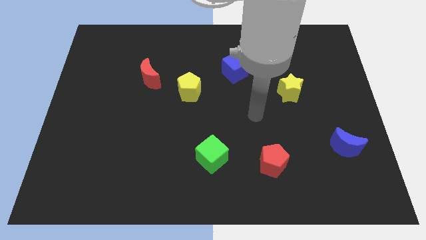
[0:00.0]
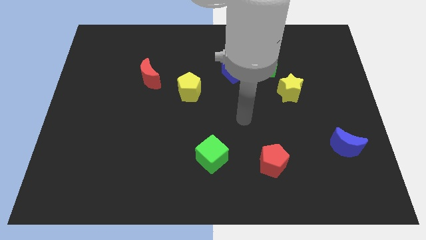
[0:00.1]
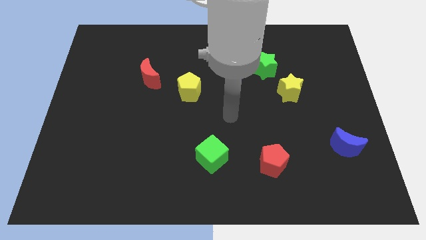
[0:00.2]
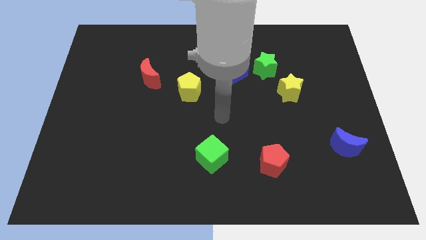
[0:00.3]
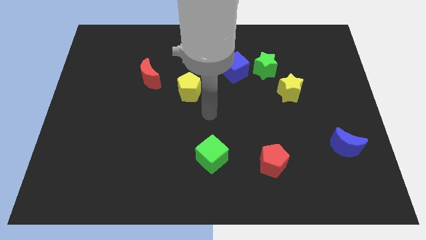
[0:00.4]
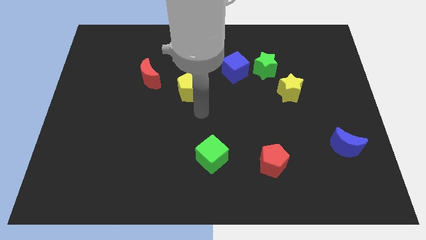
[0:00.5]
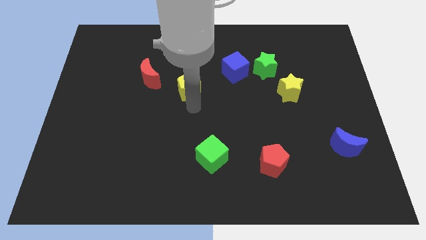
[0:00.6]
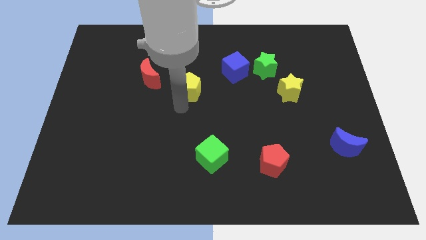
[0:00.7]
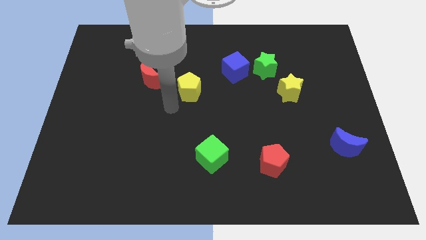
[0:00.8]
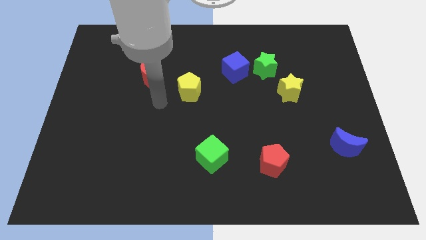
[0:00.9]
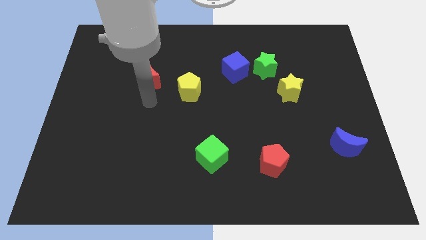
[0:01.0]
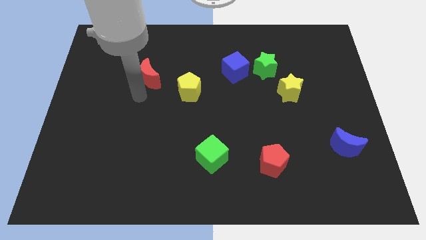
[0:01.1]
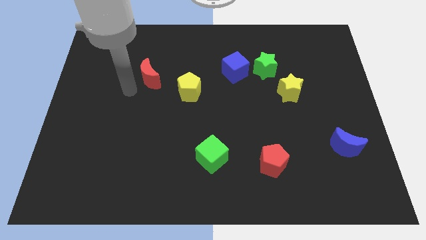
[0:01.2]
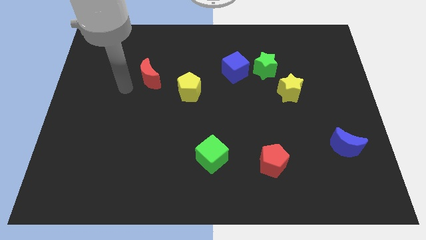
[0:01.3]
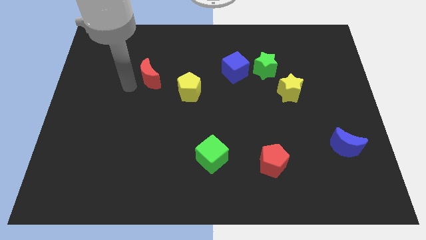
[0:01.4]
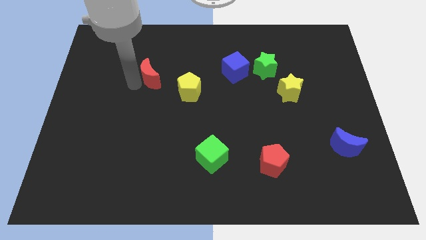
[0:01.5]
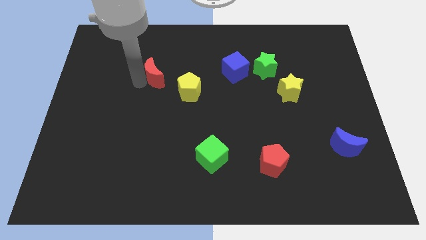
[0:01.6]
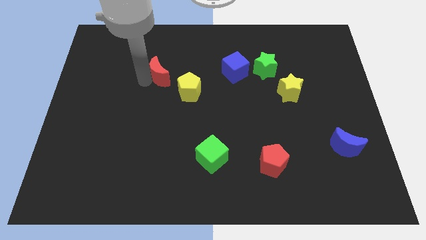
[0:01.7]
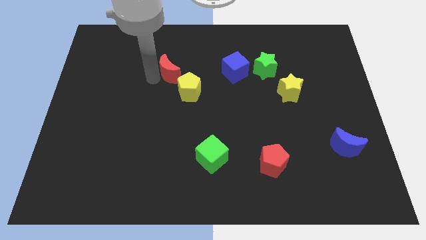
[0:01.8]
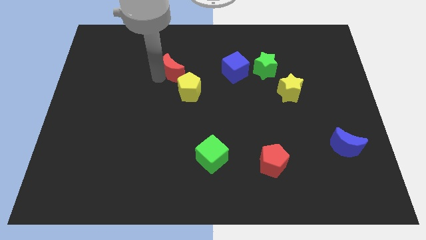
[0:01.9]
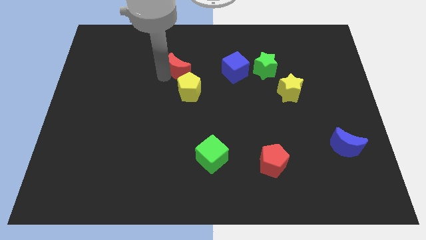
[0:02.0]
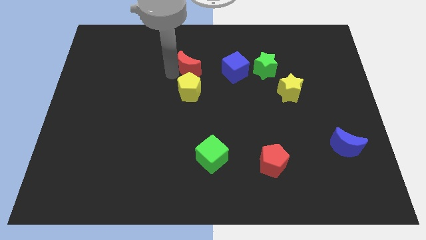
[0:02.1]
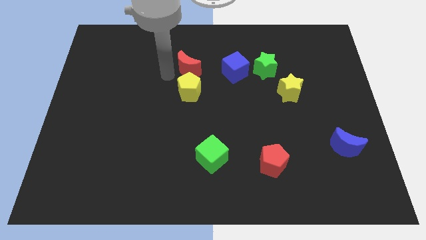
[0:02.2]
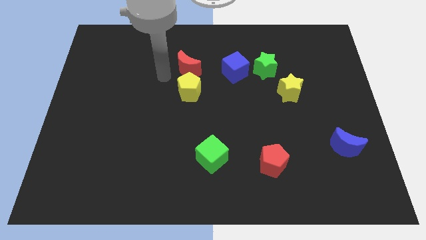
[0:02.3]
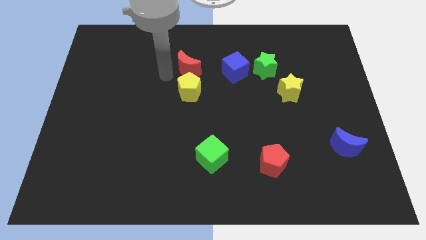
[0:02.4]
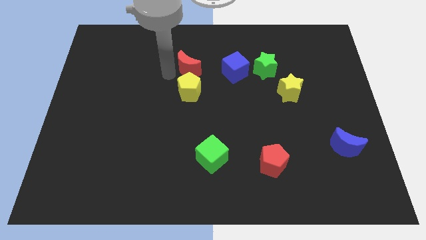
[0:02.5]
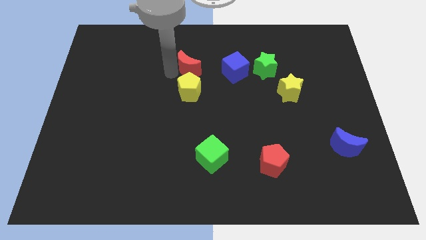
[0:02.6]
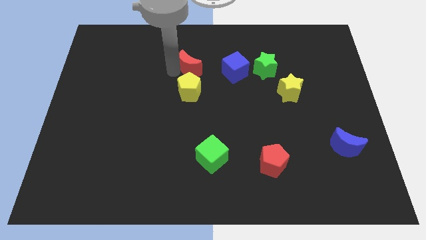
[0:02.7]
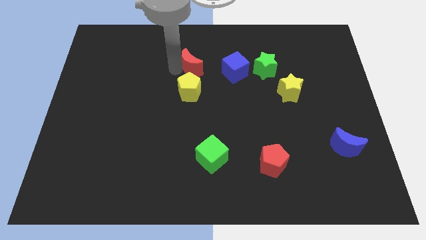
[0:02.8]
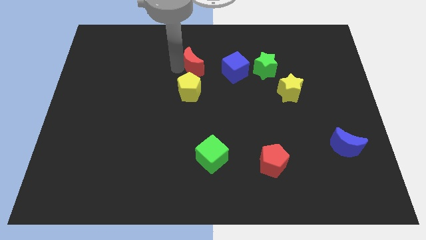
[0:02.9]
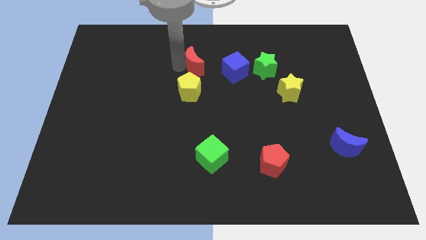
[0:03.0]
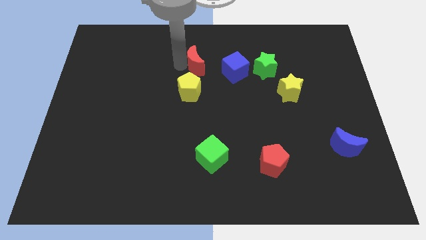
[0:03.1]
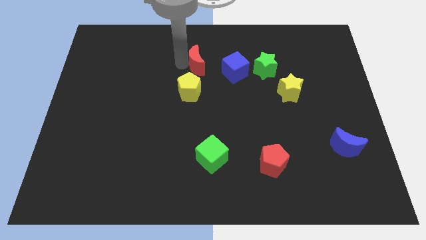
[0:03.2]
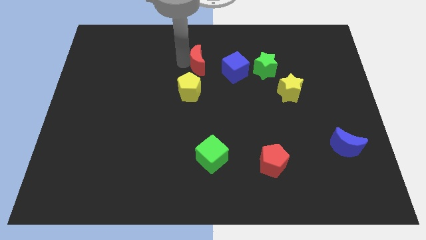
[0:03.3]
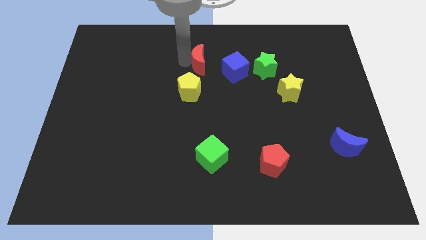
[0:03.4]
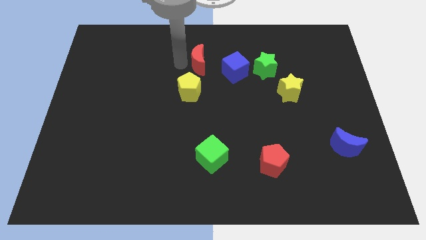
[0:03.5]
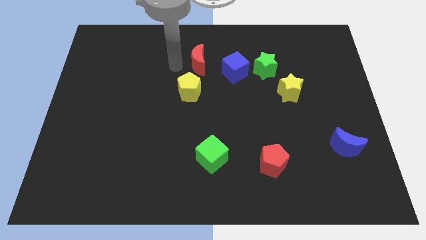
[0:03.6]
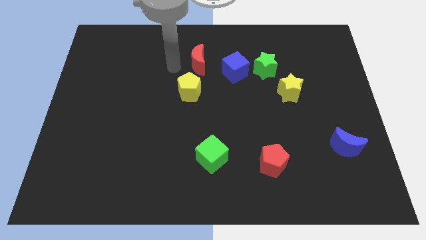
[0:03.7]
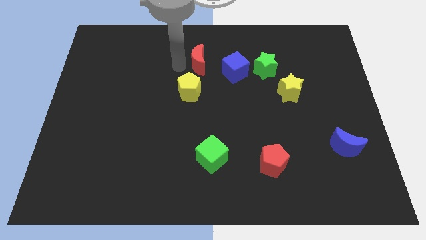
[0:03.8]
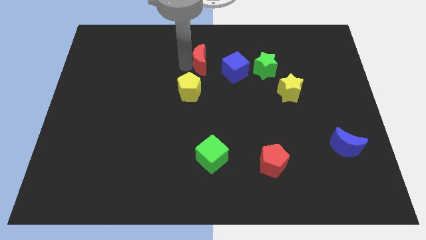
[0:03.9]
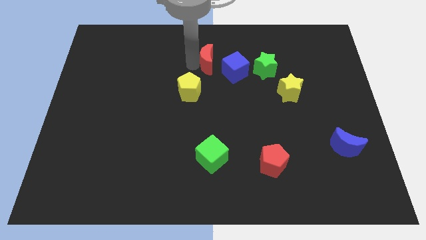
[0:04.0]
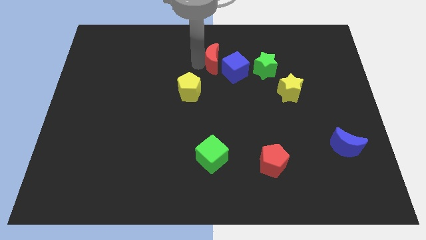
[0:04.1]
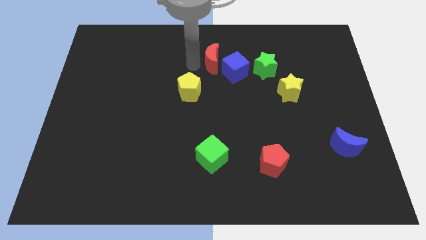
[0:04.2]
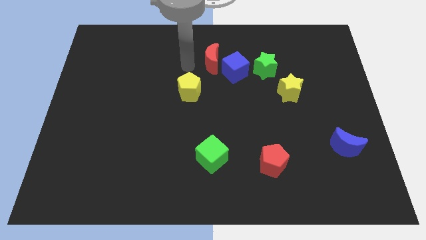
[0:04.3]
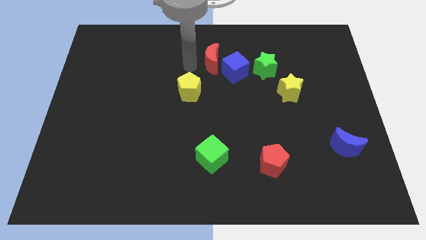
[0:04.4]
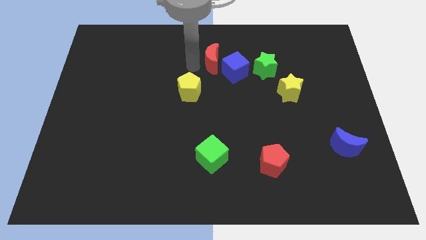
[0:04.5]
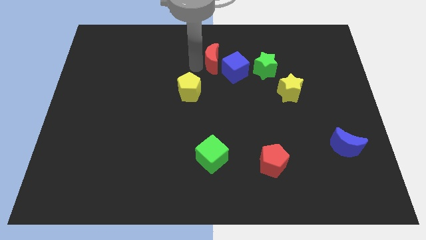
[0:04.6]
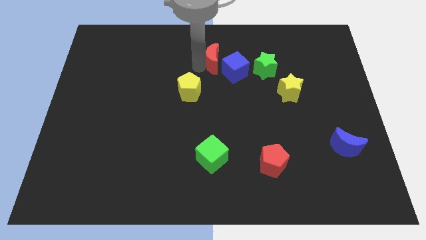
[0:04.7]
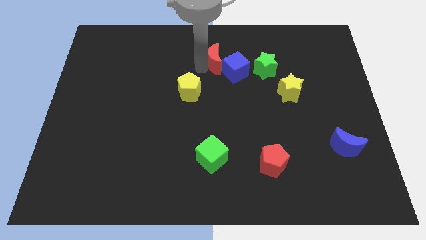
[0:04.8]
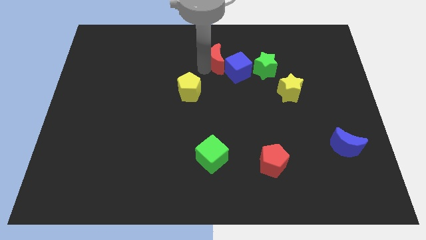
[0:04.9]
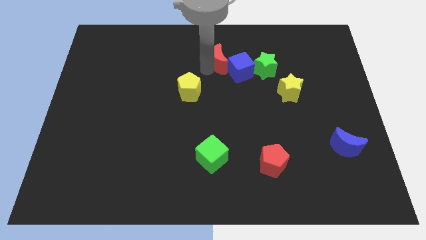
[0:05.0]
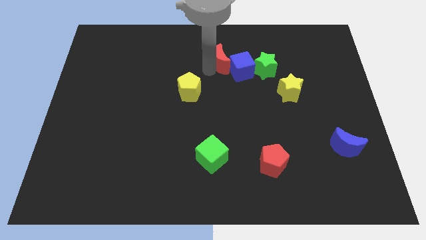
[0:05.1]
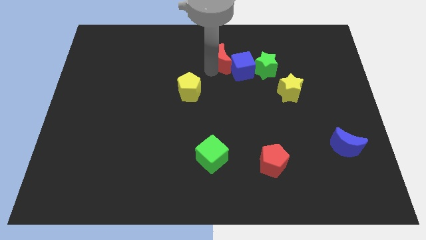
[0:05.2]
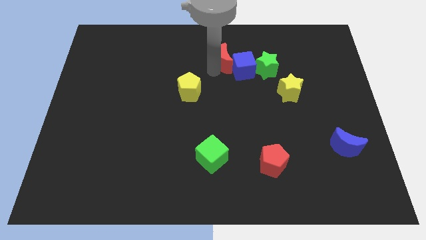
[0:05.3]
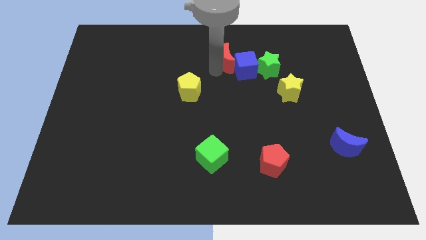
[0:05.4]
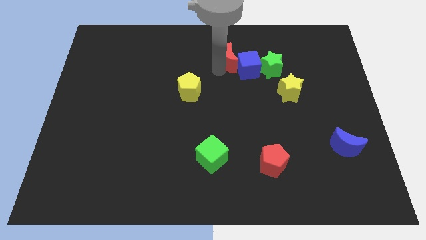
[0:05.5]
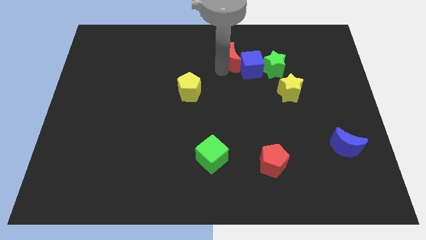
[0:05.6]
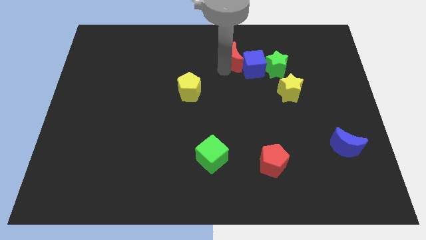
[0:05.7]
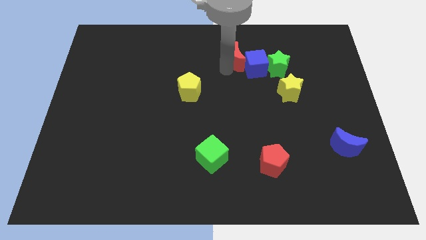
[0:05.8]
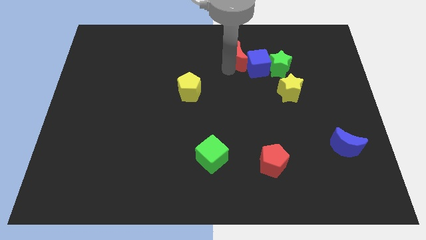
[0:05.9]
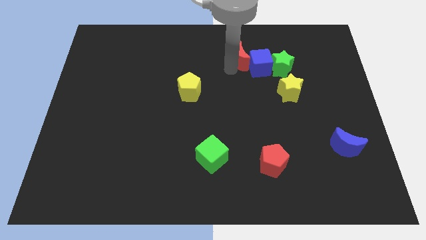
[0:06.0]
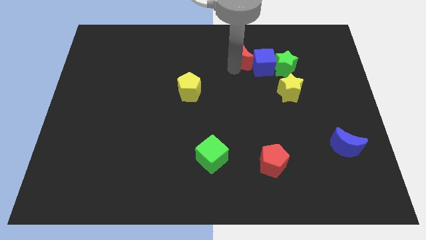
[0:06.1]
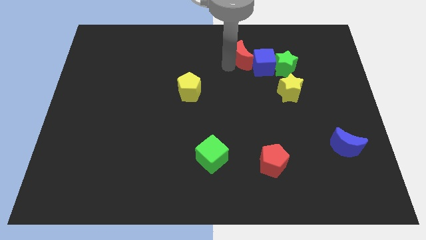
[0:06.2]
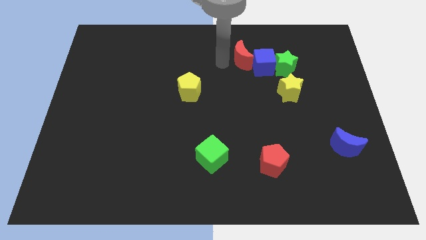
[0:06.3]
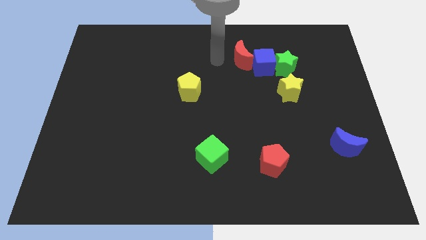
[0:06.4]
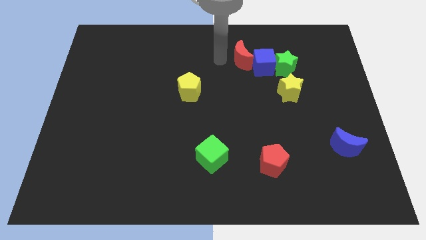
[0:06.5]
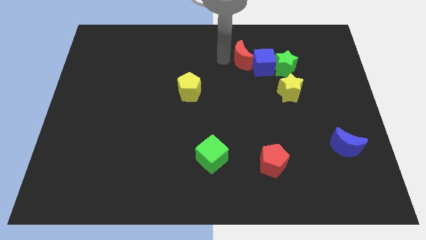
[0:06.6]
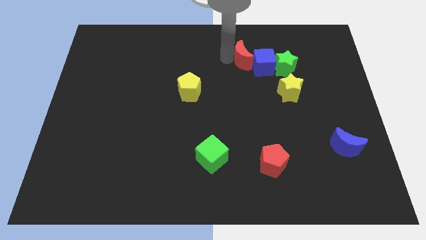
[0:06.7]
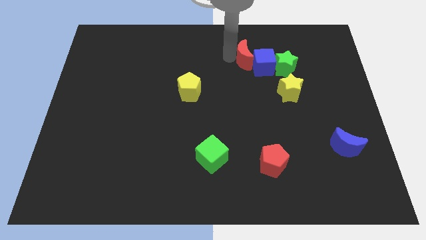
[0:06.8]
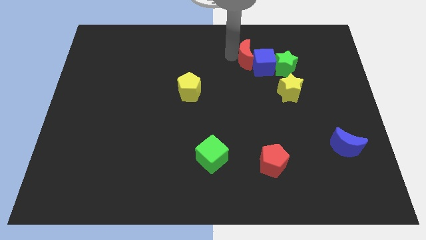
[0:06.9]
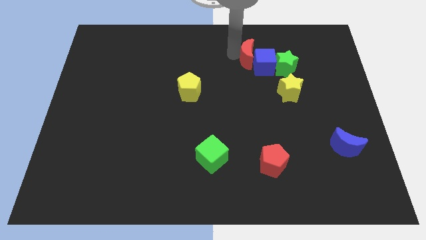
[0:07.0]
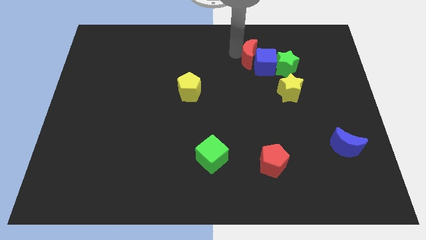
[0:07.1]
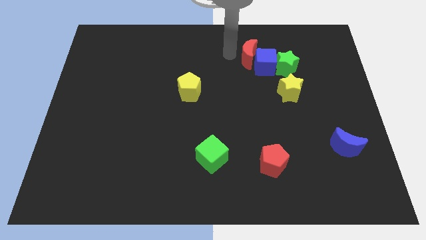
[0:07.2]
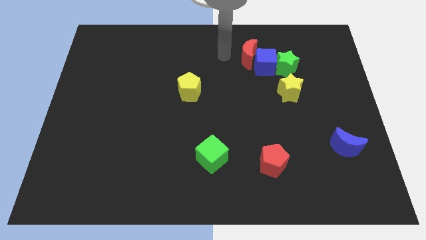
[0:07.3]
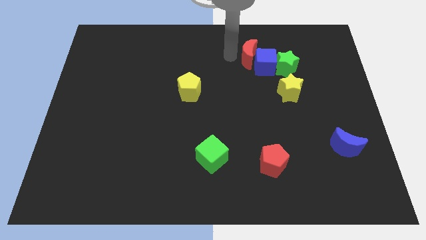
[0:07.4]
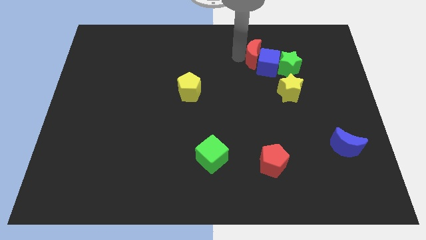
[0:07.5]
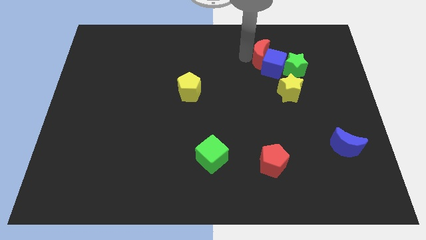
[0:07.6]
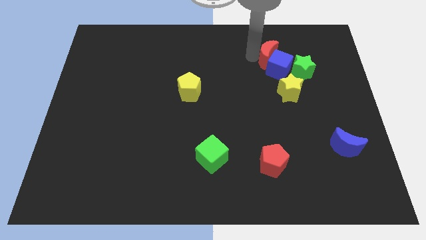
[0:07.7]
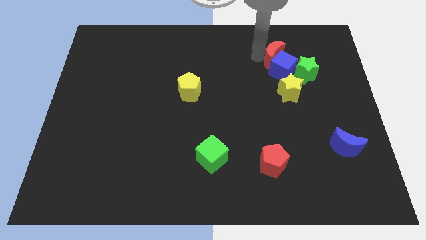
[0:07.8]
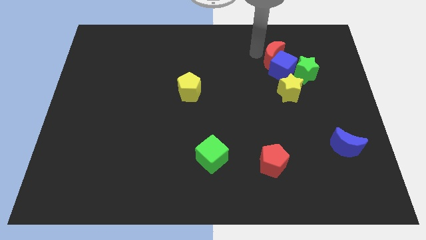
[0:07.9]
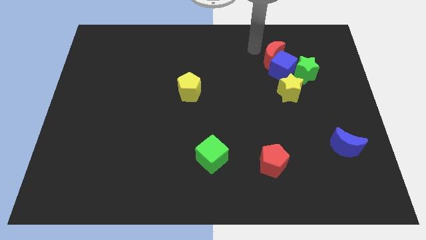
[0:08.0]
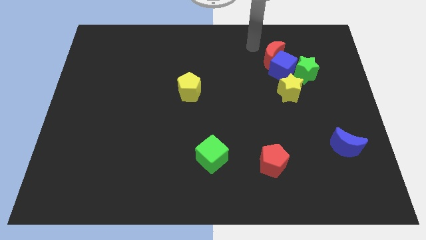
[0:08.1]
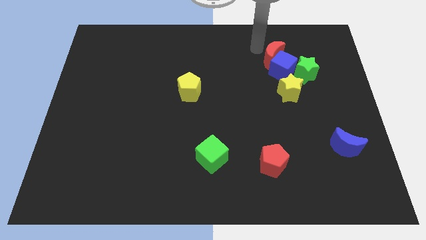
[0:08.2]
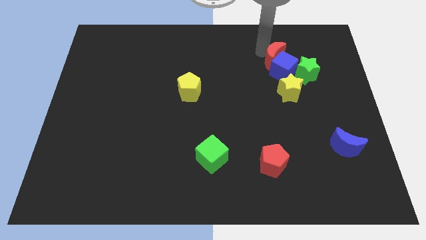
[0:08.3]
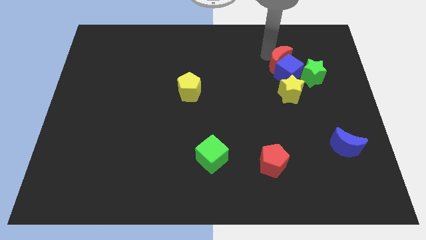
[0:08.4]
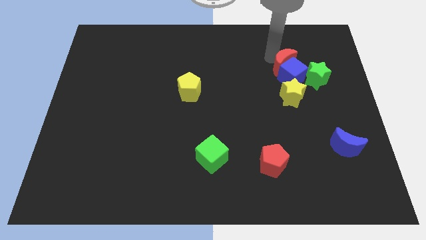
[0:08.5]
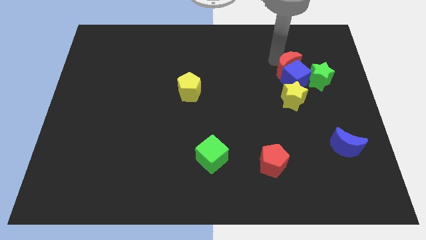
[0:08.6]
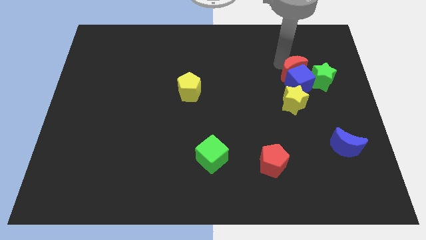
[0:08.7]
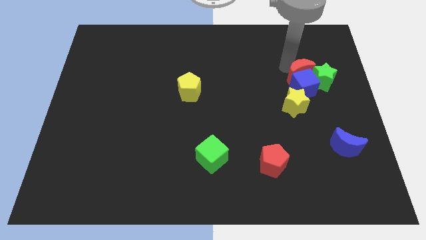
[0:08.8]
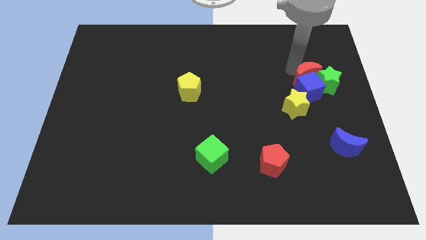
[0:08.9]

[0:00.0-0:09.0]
put the red moon diagonally up and to the right of the yellow star
